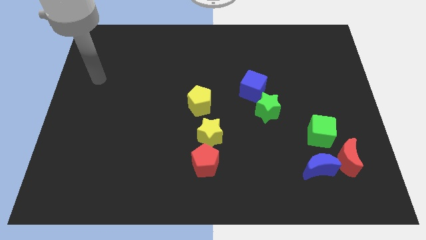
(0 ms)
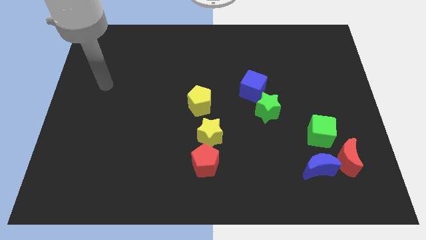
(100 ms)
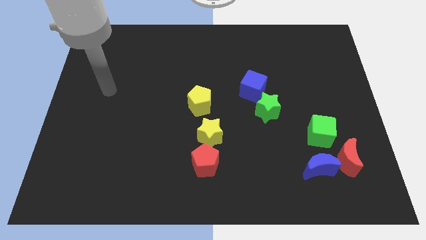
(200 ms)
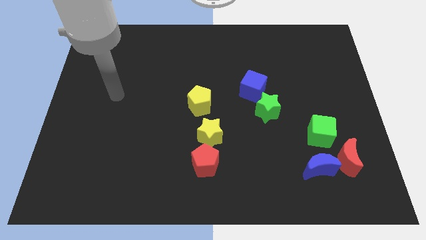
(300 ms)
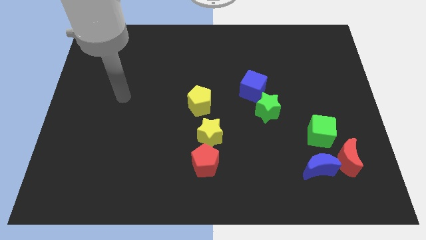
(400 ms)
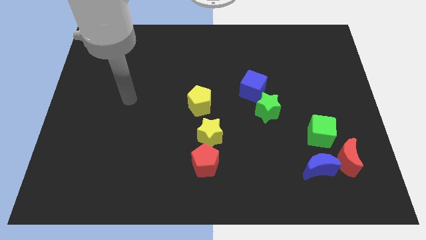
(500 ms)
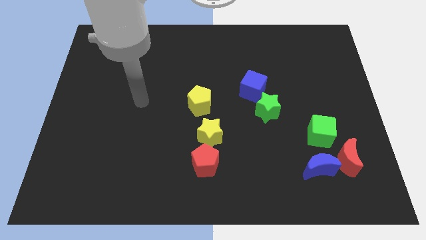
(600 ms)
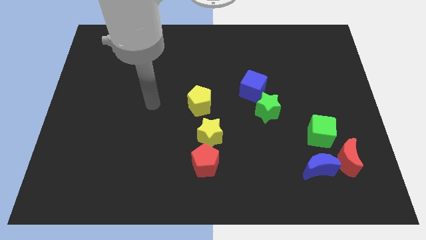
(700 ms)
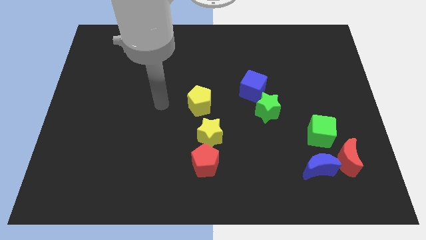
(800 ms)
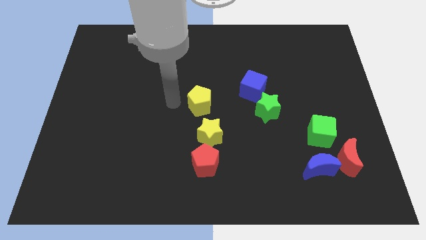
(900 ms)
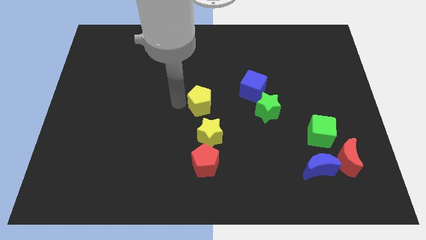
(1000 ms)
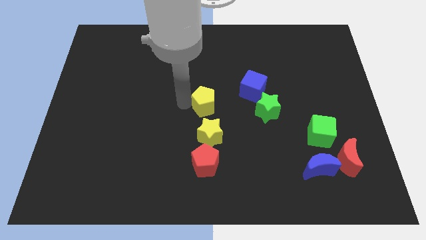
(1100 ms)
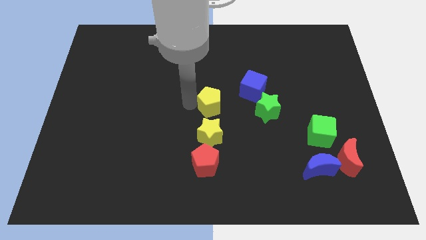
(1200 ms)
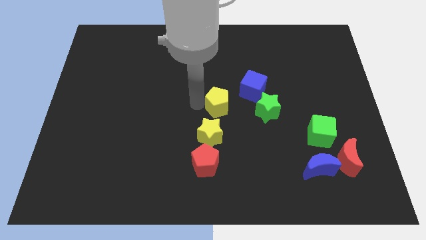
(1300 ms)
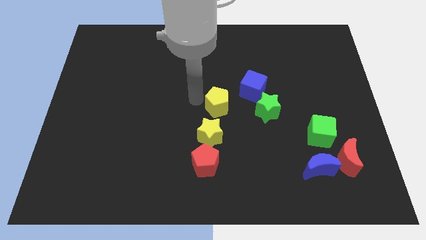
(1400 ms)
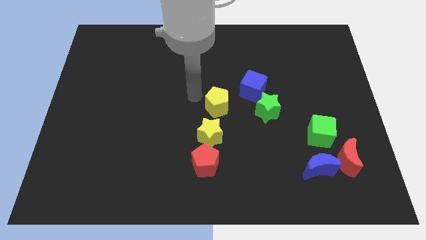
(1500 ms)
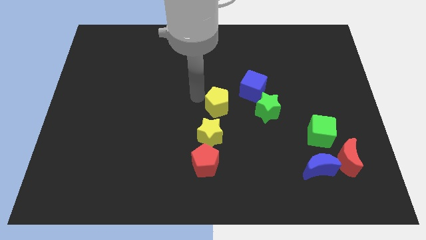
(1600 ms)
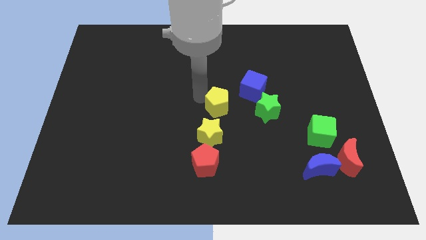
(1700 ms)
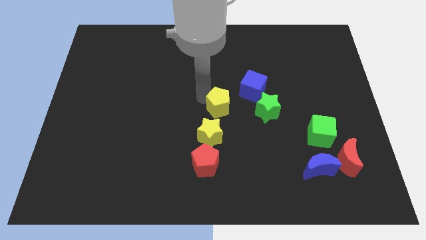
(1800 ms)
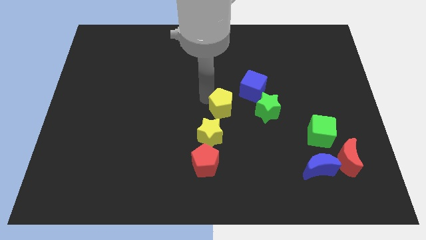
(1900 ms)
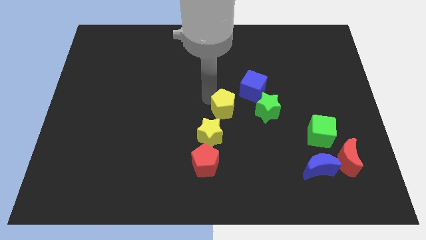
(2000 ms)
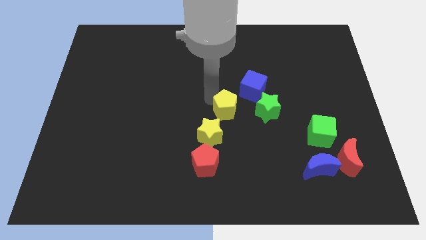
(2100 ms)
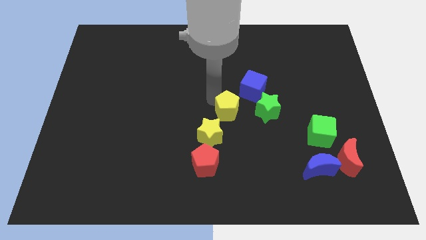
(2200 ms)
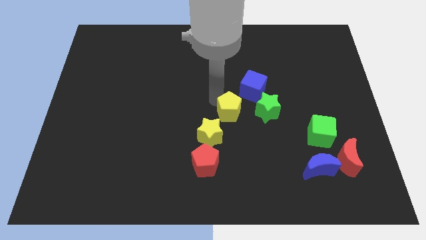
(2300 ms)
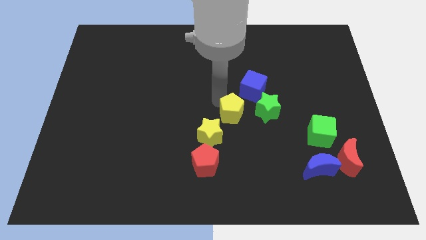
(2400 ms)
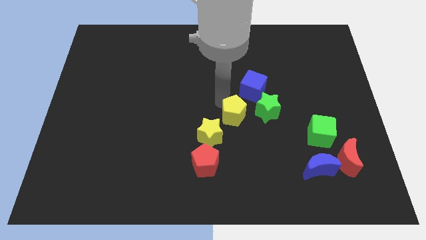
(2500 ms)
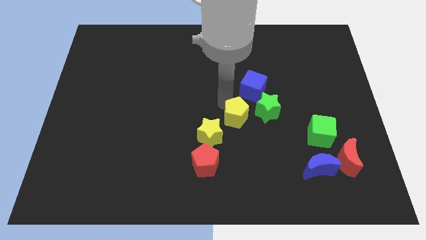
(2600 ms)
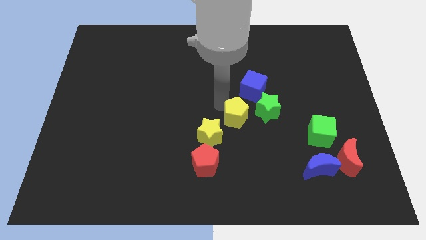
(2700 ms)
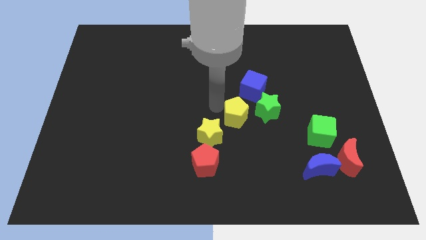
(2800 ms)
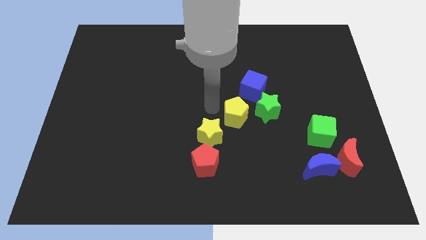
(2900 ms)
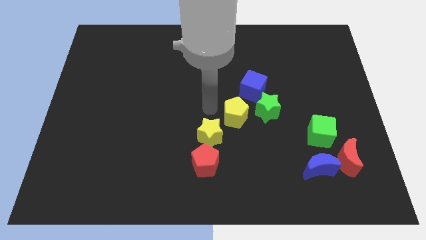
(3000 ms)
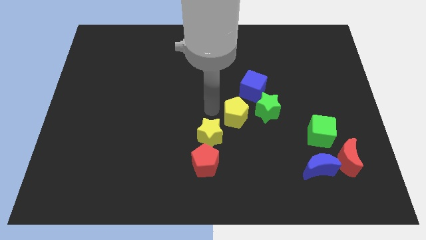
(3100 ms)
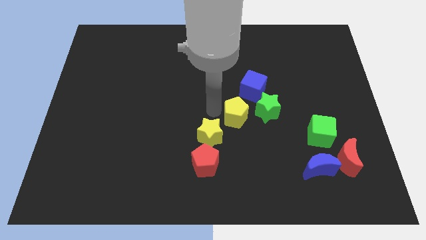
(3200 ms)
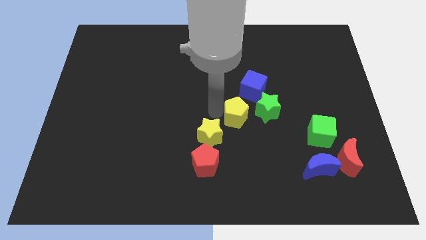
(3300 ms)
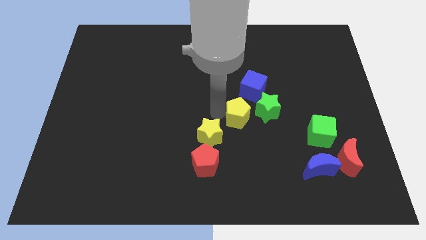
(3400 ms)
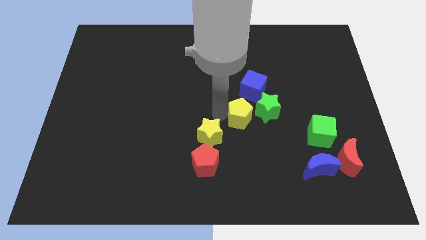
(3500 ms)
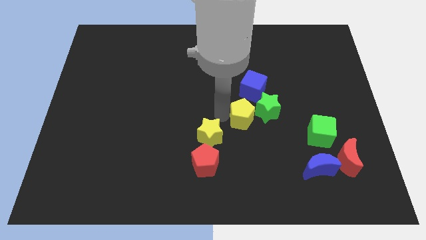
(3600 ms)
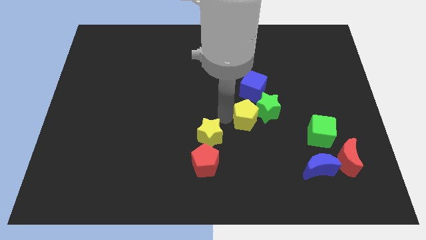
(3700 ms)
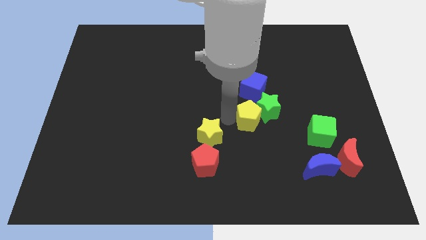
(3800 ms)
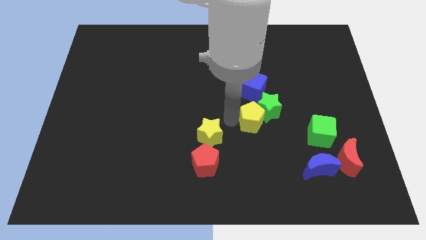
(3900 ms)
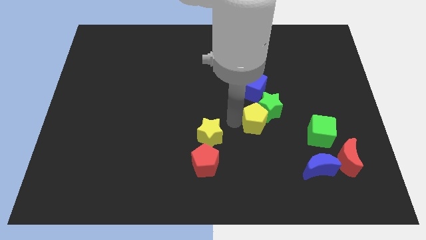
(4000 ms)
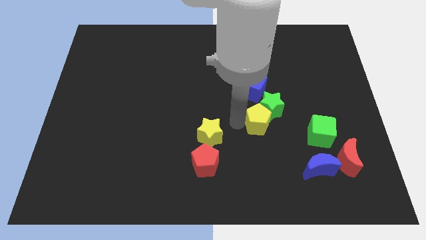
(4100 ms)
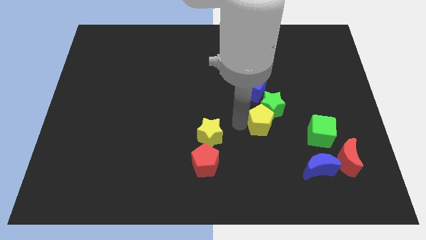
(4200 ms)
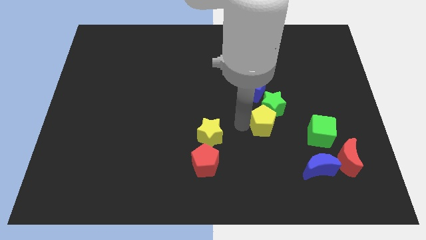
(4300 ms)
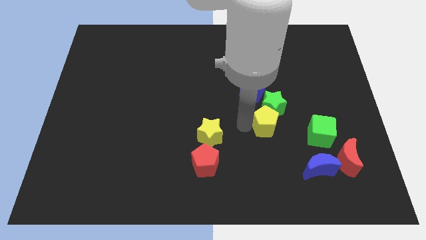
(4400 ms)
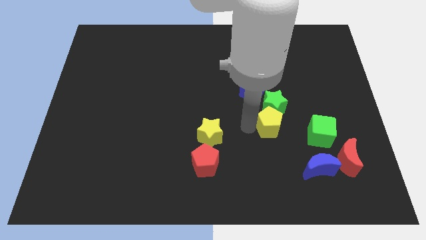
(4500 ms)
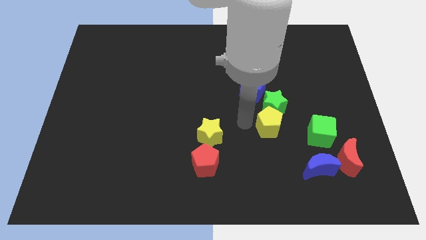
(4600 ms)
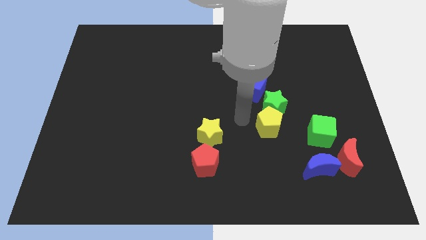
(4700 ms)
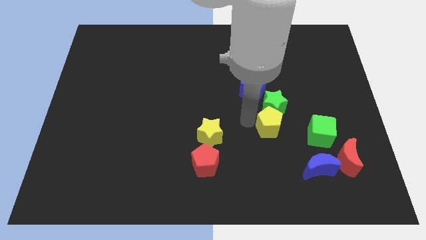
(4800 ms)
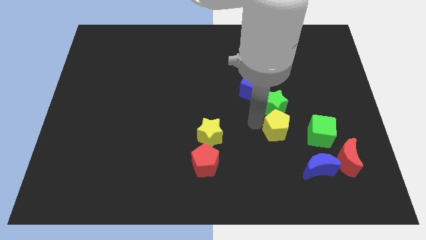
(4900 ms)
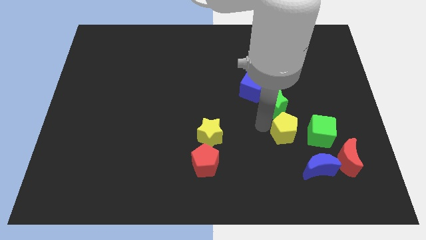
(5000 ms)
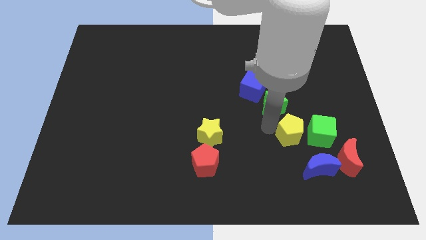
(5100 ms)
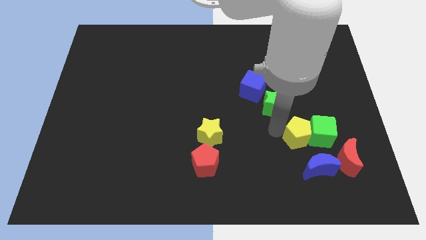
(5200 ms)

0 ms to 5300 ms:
slide the yellow pentagon next to the green cube

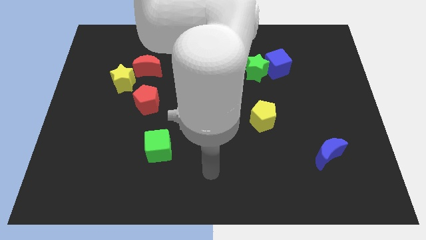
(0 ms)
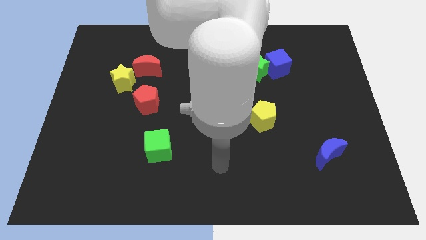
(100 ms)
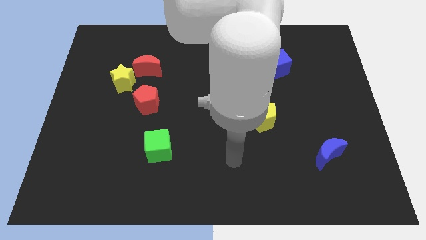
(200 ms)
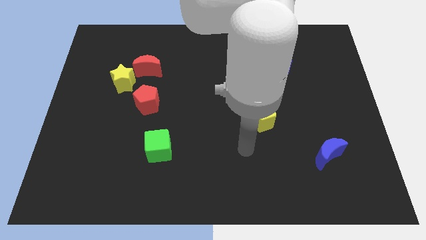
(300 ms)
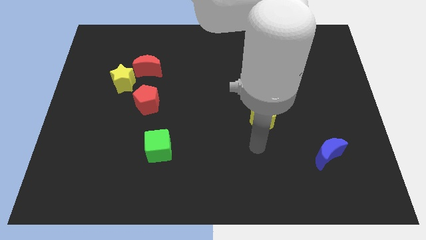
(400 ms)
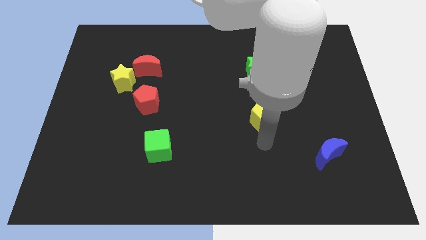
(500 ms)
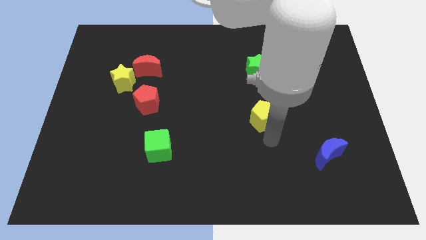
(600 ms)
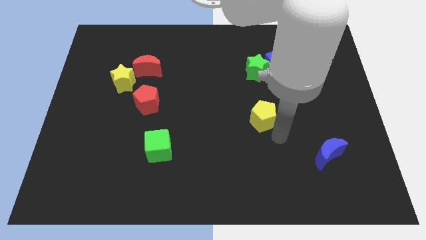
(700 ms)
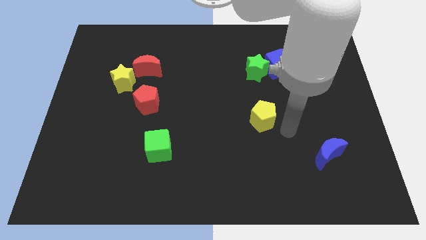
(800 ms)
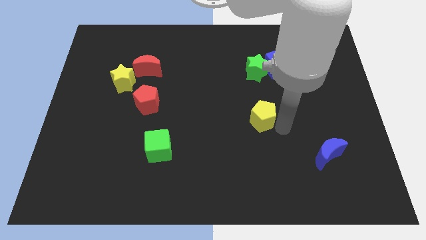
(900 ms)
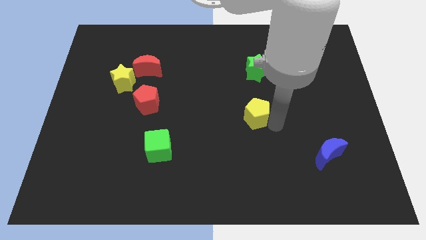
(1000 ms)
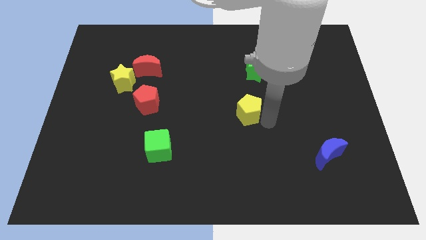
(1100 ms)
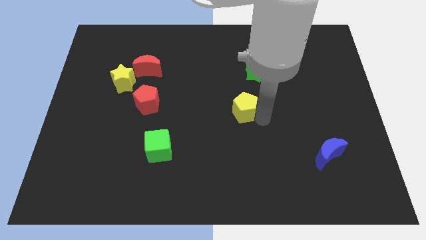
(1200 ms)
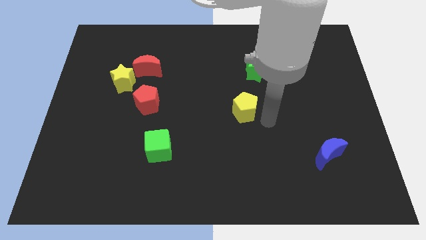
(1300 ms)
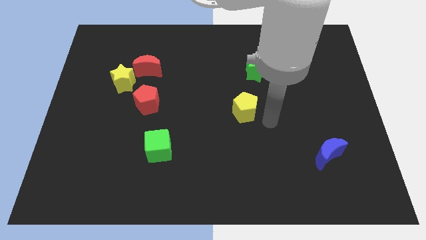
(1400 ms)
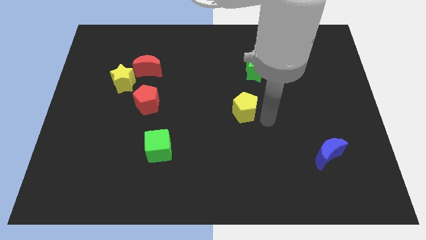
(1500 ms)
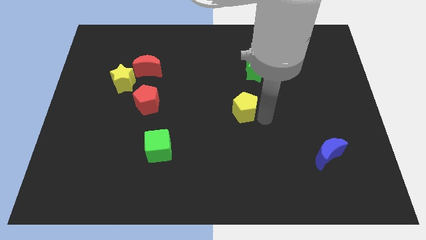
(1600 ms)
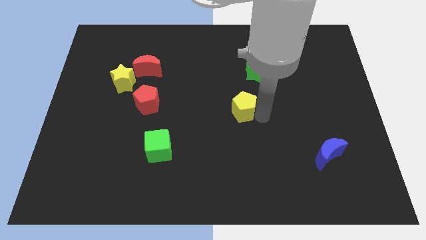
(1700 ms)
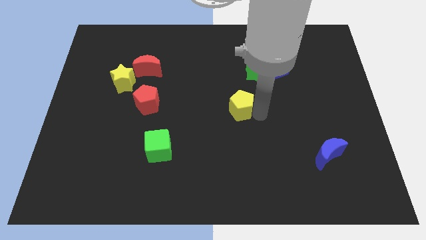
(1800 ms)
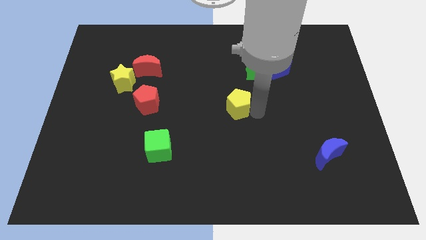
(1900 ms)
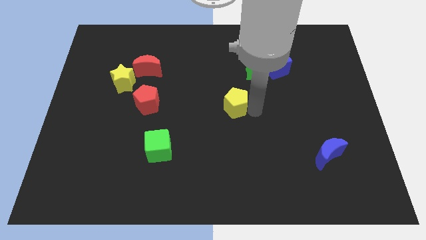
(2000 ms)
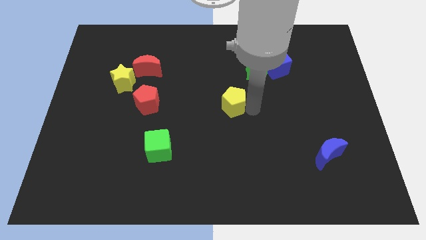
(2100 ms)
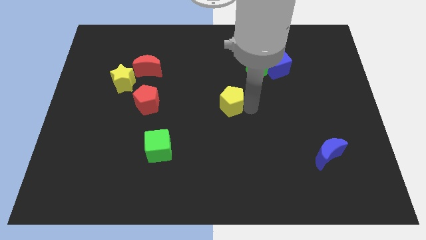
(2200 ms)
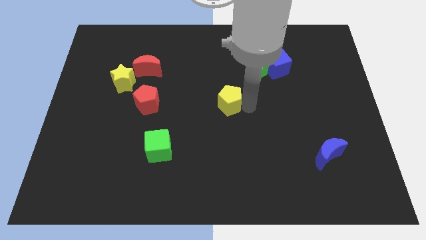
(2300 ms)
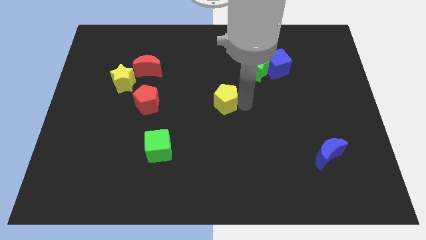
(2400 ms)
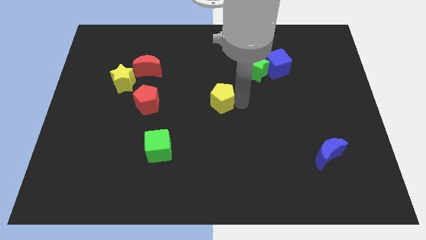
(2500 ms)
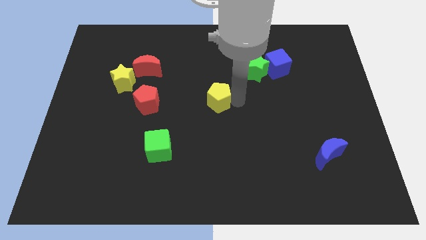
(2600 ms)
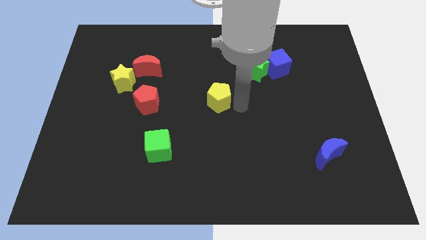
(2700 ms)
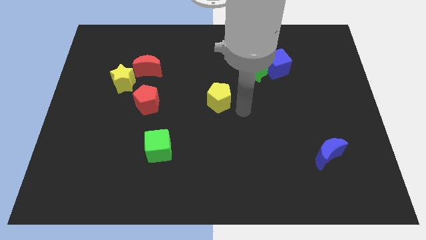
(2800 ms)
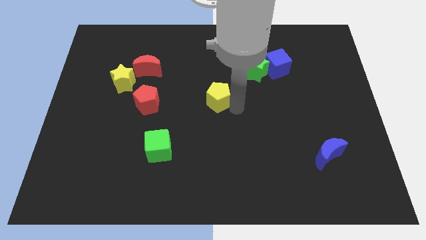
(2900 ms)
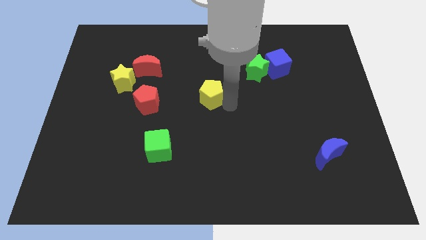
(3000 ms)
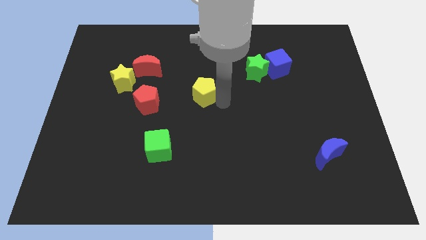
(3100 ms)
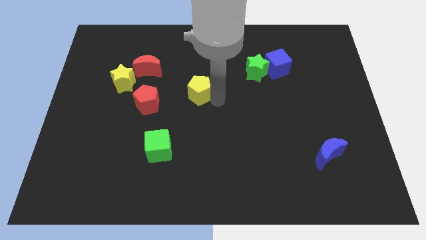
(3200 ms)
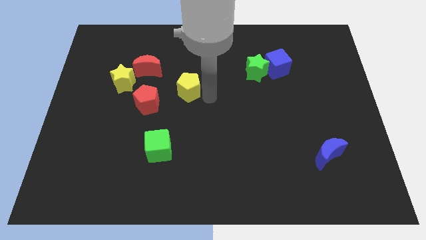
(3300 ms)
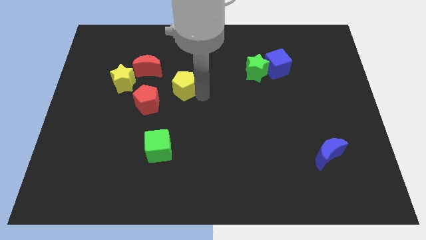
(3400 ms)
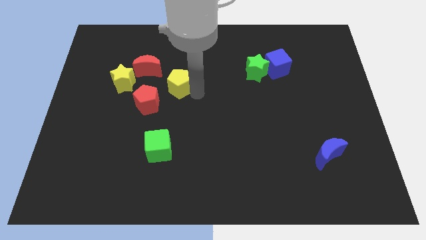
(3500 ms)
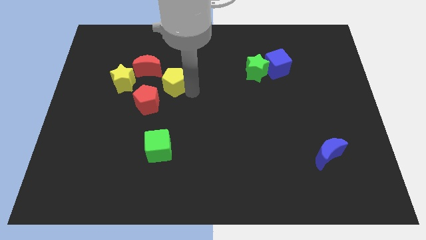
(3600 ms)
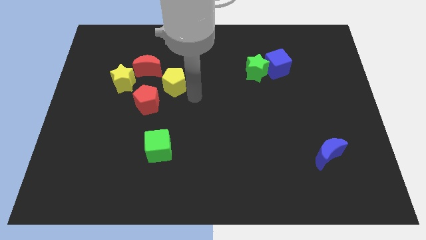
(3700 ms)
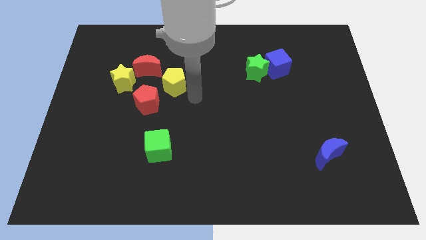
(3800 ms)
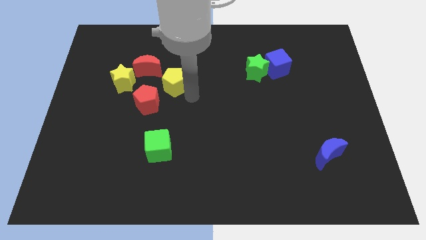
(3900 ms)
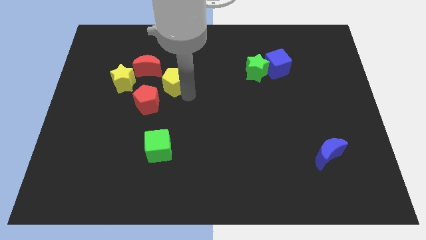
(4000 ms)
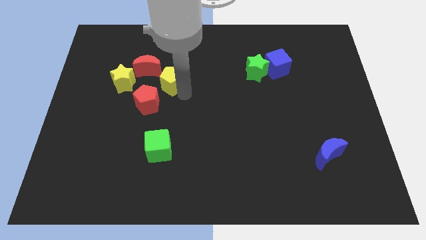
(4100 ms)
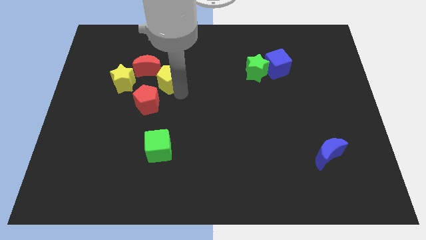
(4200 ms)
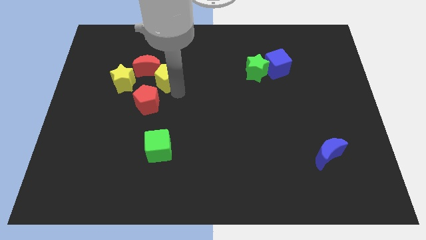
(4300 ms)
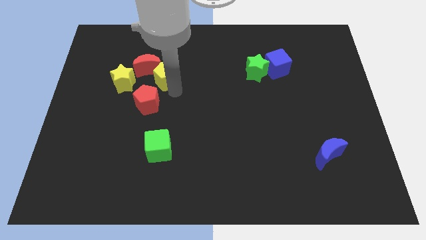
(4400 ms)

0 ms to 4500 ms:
slide the yellow pentagon to the red moon
